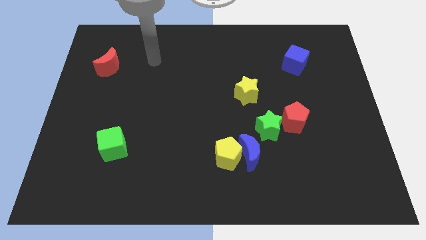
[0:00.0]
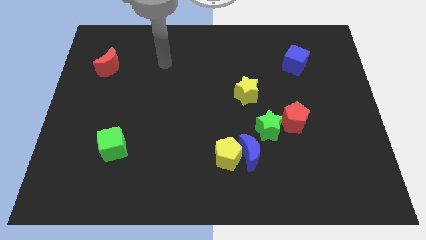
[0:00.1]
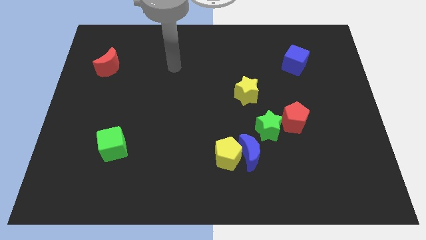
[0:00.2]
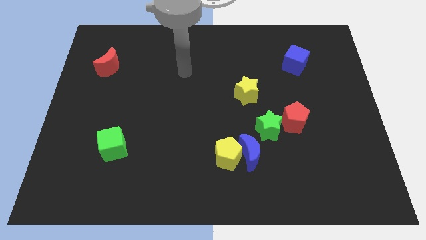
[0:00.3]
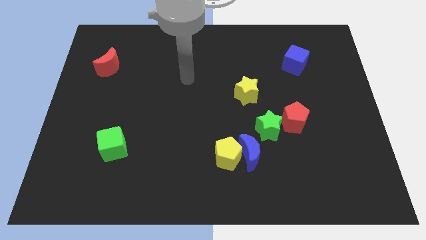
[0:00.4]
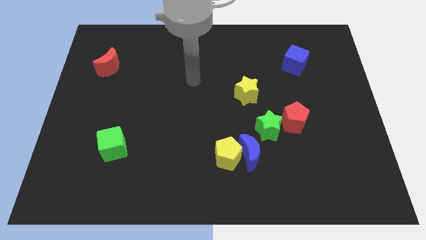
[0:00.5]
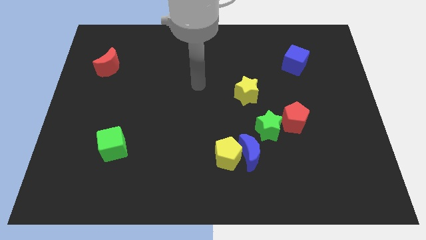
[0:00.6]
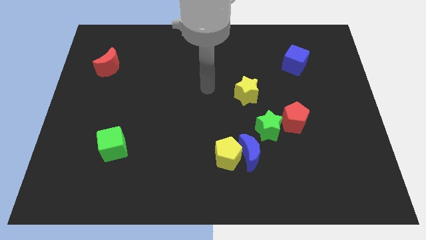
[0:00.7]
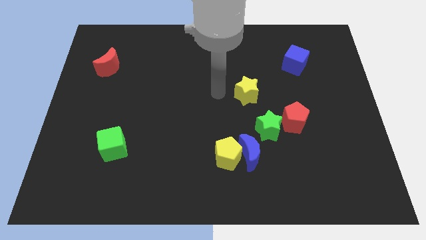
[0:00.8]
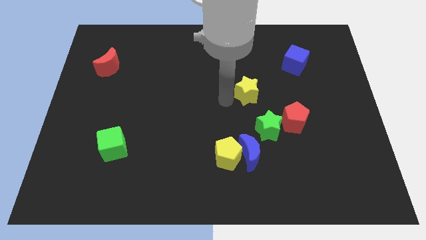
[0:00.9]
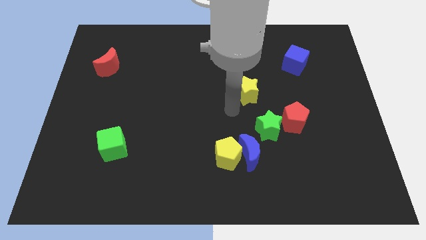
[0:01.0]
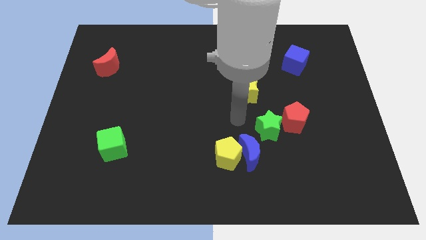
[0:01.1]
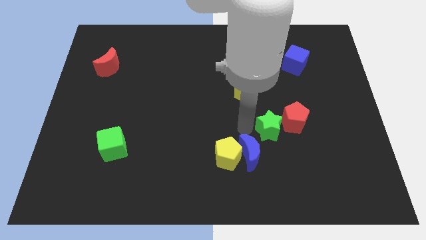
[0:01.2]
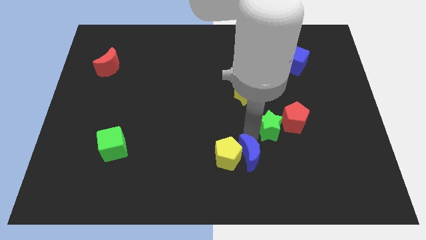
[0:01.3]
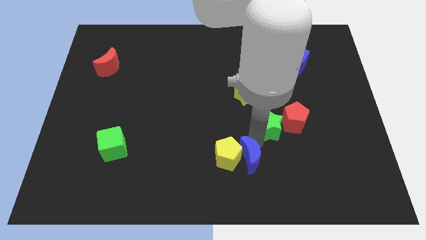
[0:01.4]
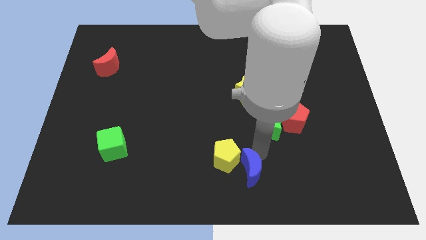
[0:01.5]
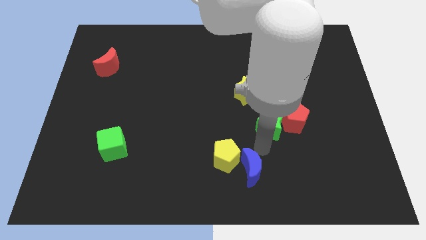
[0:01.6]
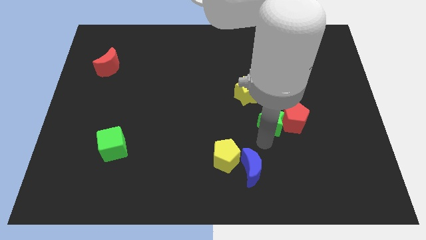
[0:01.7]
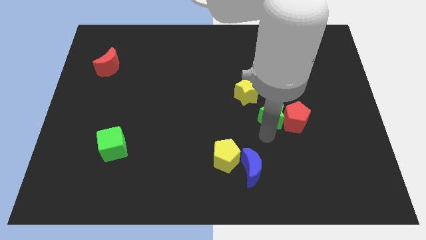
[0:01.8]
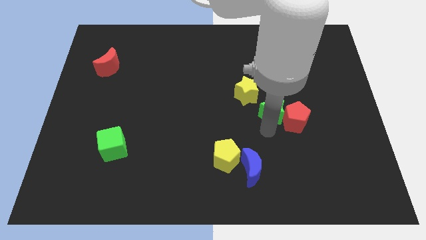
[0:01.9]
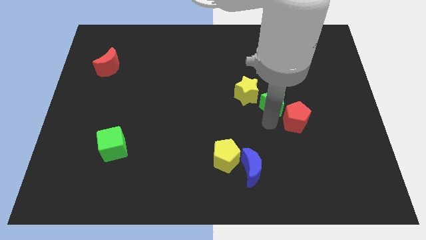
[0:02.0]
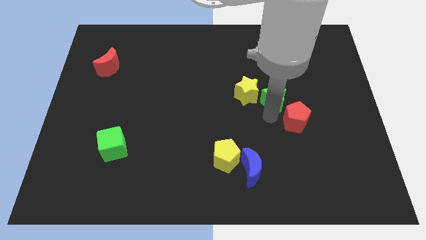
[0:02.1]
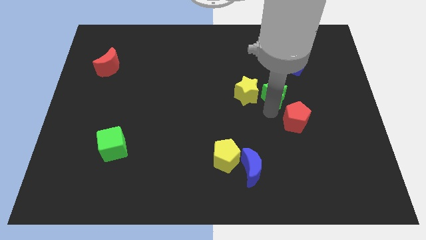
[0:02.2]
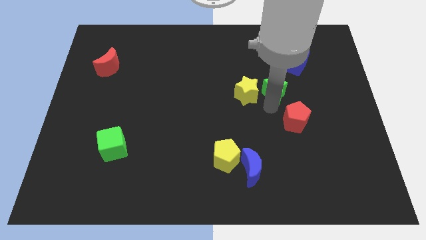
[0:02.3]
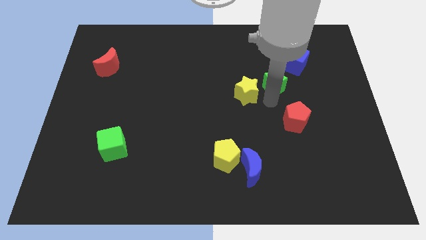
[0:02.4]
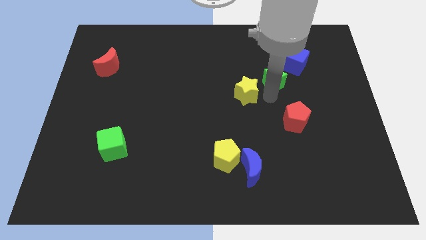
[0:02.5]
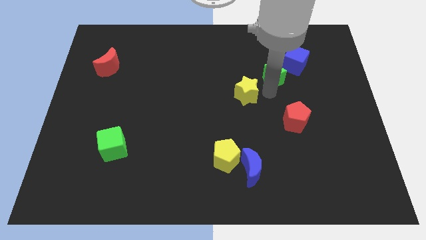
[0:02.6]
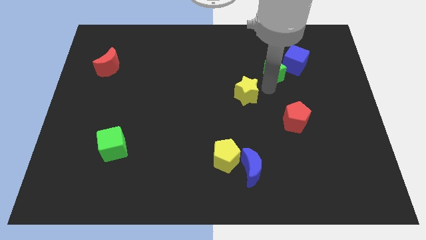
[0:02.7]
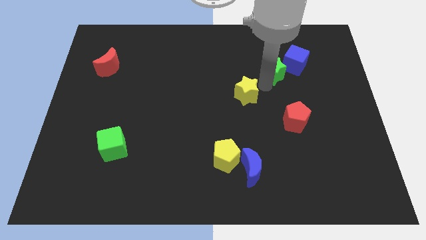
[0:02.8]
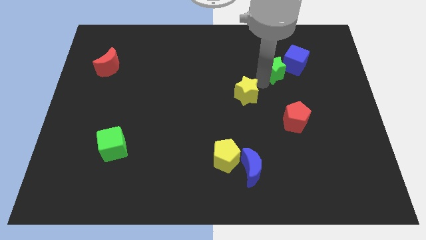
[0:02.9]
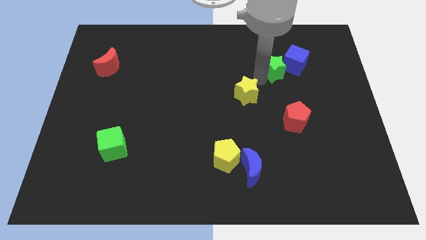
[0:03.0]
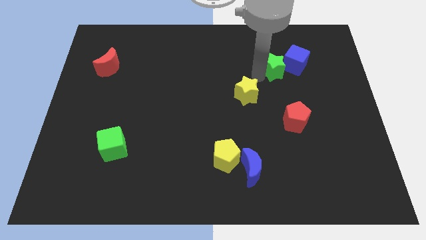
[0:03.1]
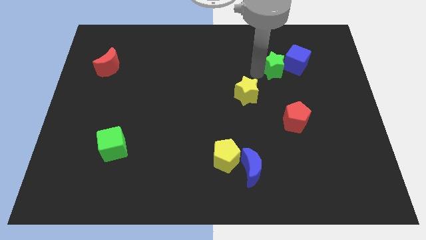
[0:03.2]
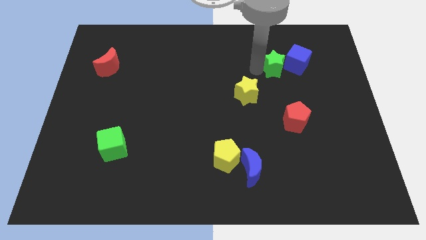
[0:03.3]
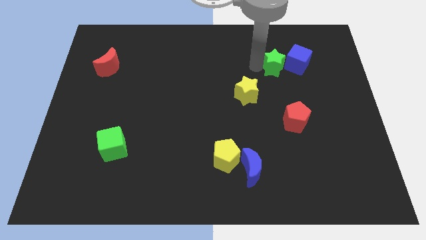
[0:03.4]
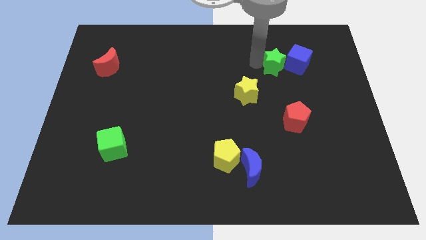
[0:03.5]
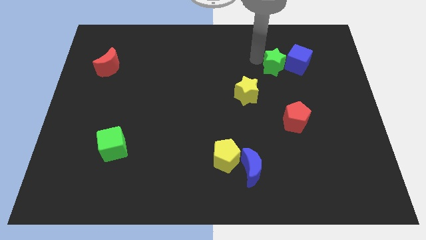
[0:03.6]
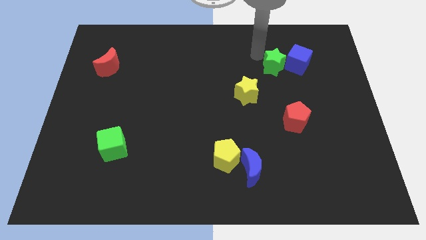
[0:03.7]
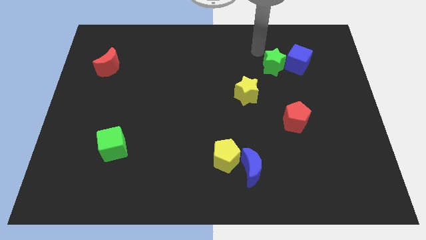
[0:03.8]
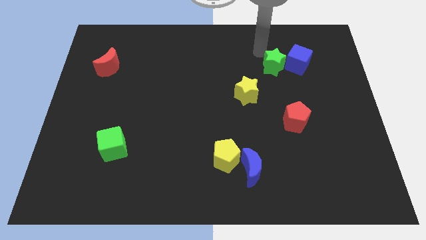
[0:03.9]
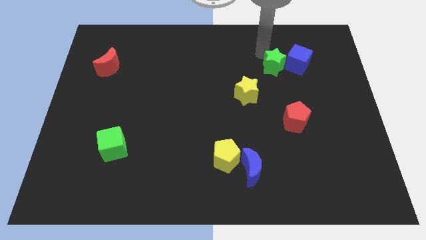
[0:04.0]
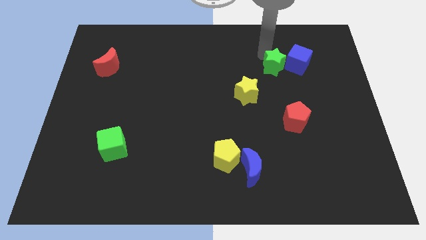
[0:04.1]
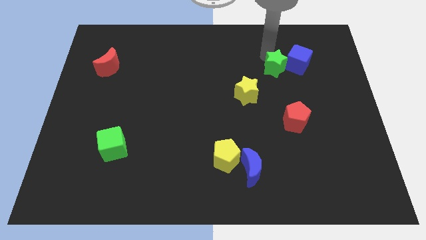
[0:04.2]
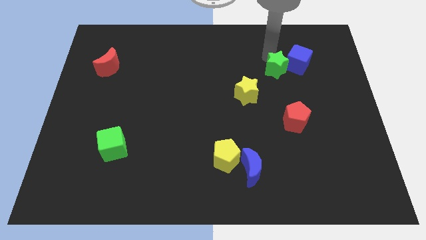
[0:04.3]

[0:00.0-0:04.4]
move the green star next to the blue cube

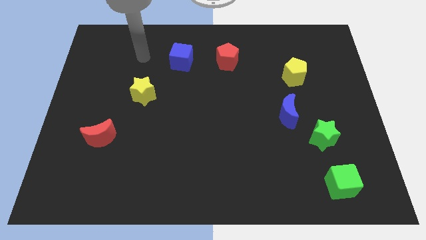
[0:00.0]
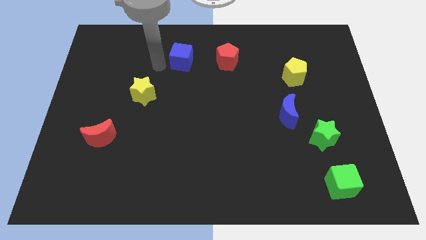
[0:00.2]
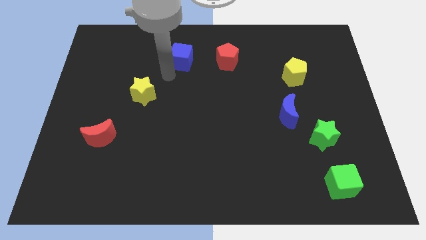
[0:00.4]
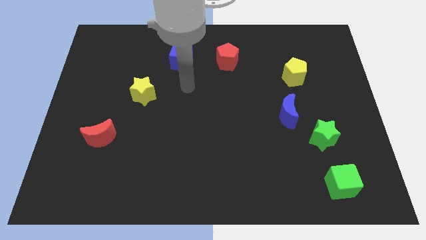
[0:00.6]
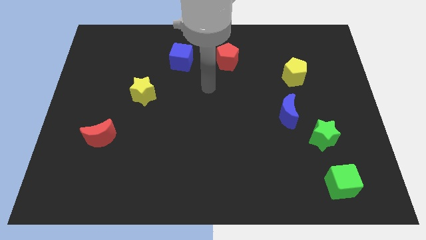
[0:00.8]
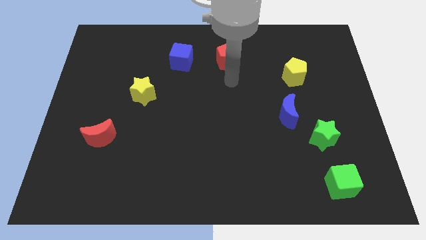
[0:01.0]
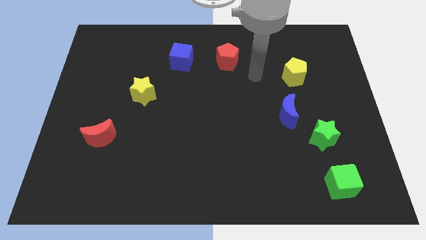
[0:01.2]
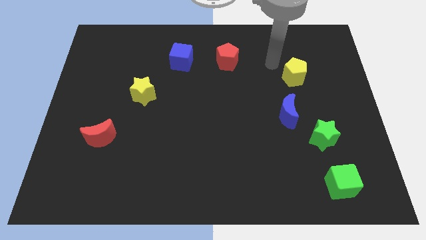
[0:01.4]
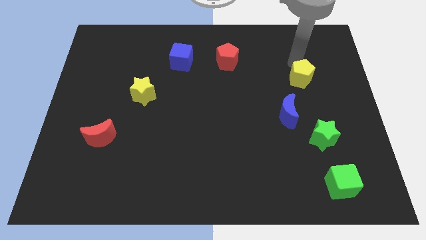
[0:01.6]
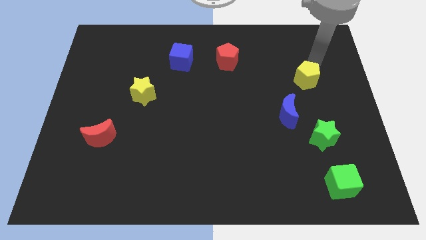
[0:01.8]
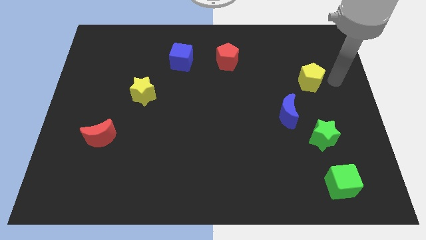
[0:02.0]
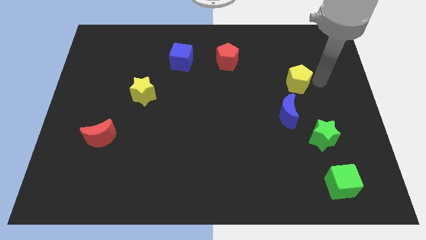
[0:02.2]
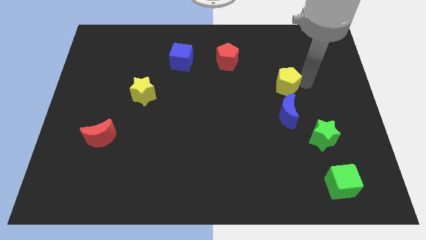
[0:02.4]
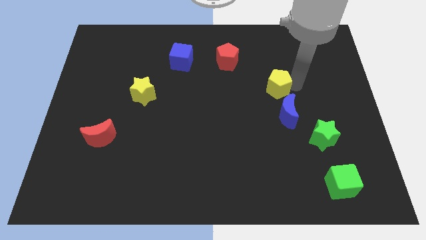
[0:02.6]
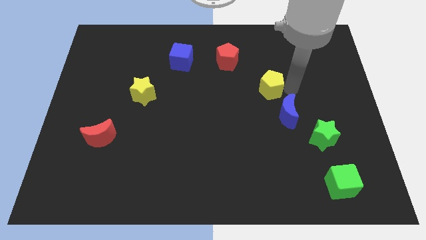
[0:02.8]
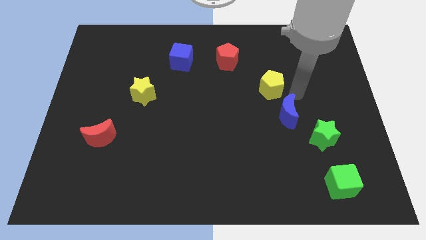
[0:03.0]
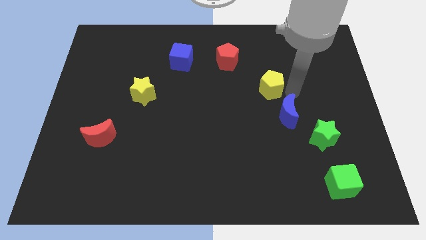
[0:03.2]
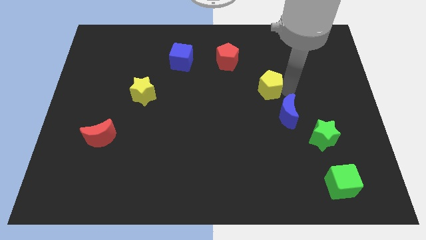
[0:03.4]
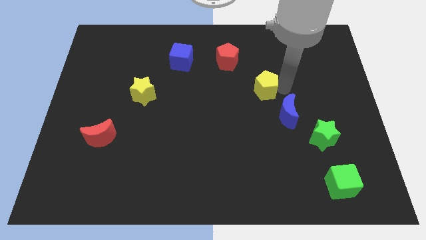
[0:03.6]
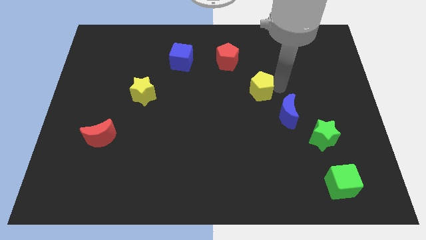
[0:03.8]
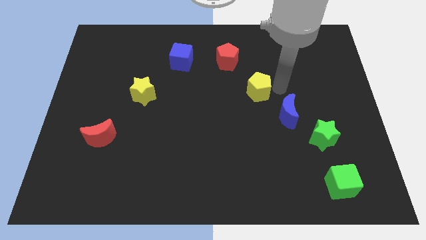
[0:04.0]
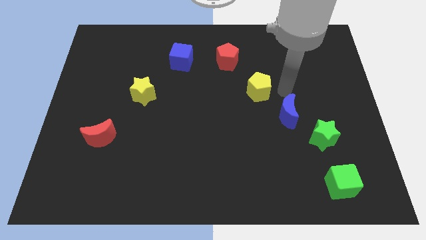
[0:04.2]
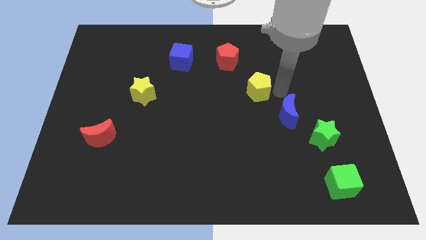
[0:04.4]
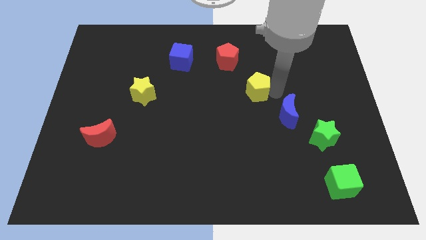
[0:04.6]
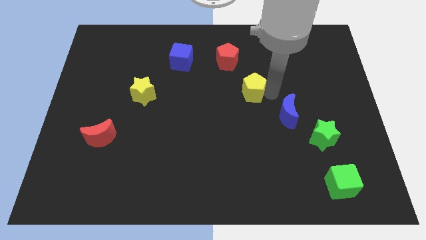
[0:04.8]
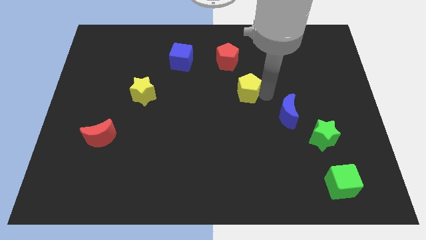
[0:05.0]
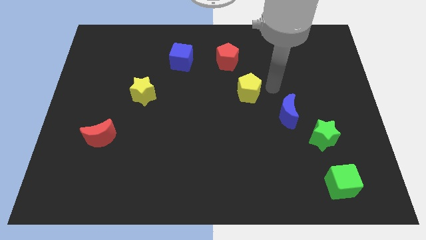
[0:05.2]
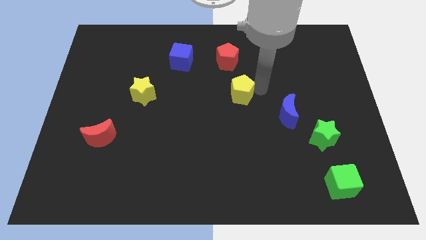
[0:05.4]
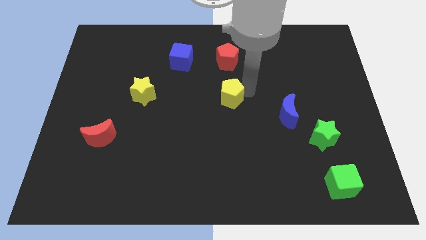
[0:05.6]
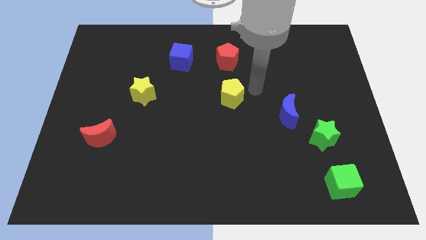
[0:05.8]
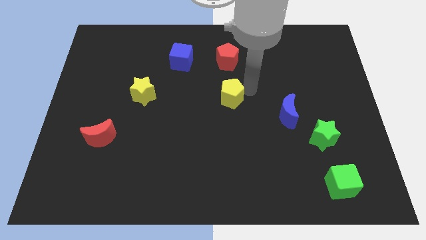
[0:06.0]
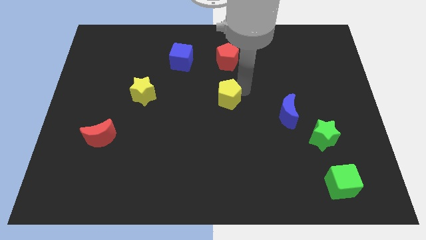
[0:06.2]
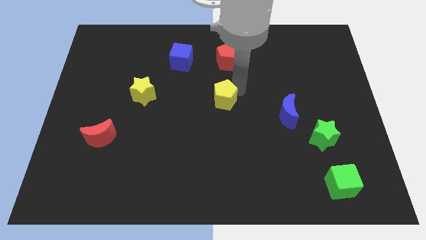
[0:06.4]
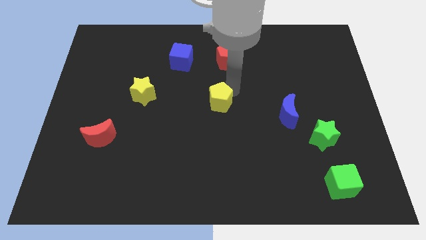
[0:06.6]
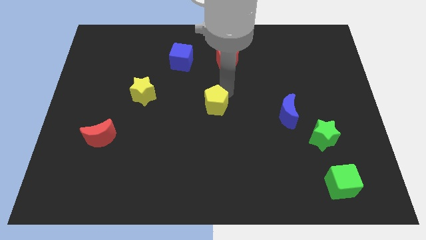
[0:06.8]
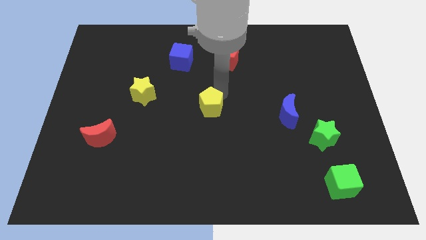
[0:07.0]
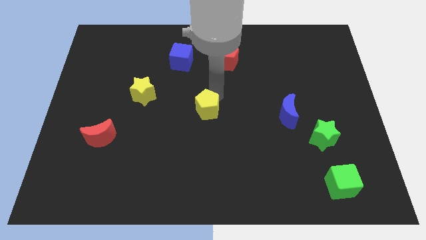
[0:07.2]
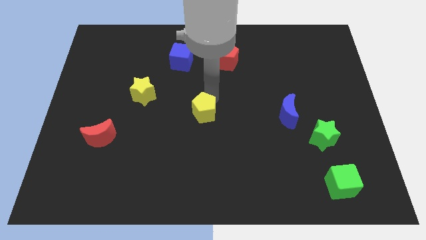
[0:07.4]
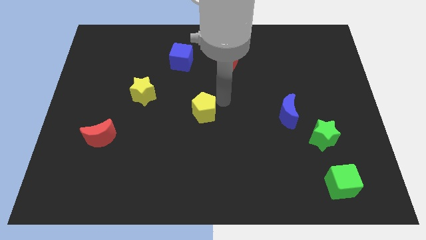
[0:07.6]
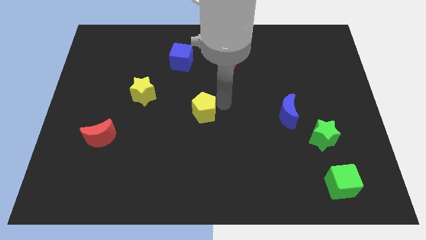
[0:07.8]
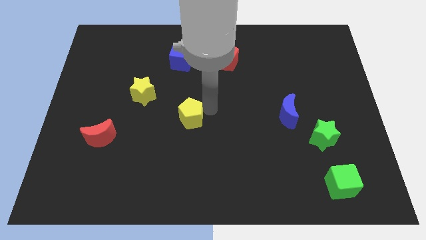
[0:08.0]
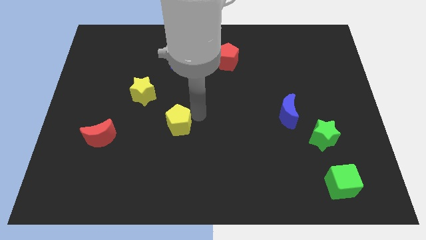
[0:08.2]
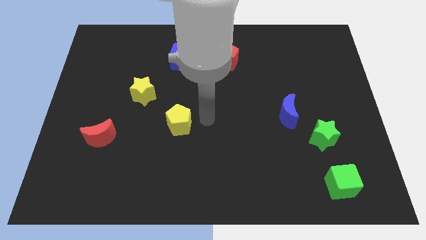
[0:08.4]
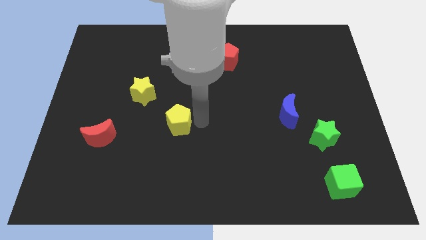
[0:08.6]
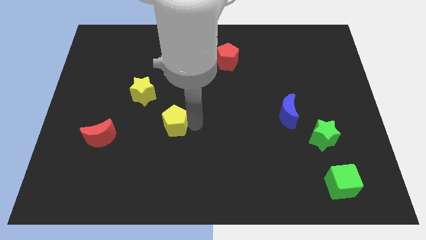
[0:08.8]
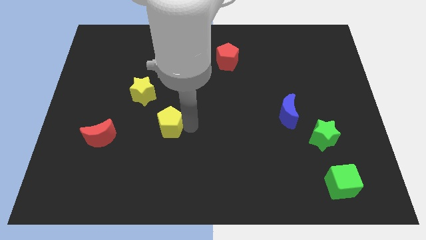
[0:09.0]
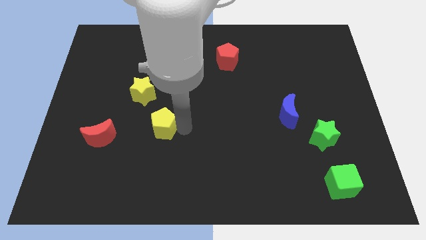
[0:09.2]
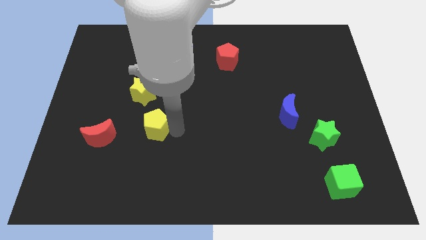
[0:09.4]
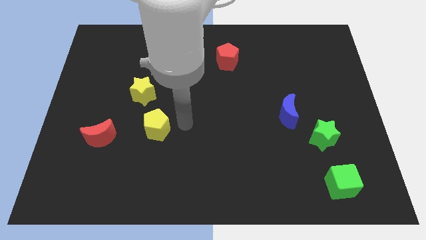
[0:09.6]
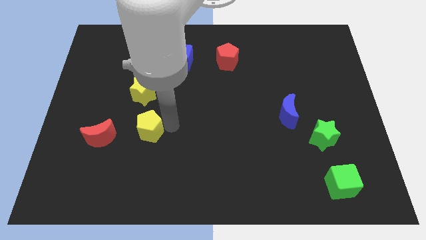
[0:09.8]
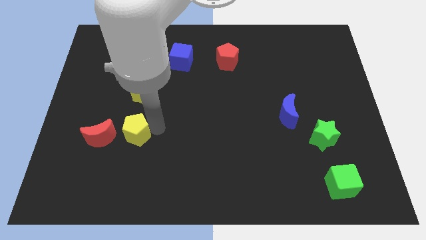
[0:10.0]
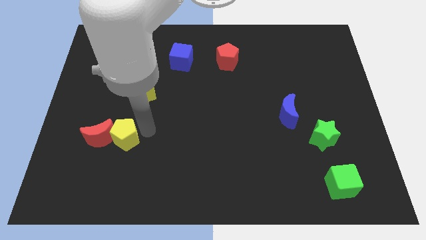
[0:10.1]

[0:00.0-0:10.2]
put the yellow pentagon towards the red moon
